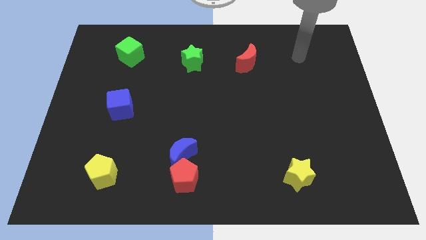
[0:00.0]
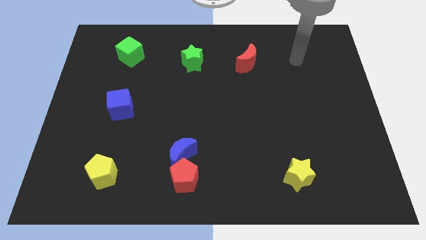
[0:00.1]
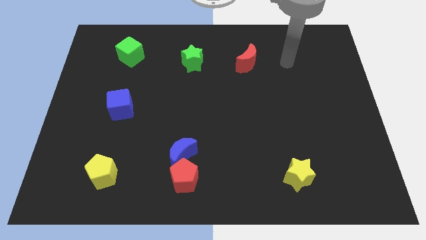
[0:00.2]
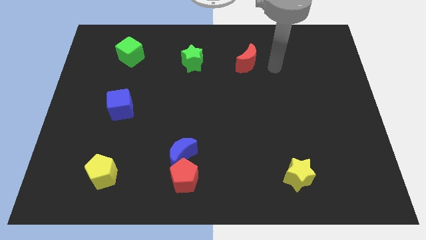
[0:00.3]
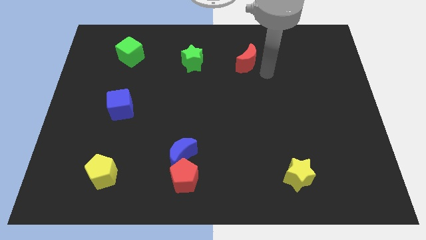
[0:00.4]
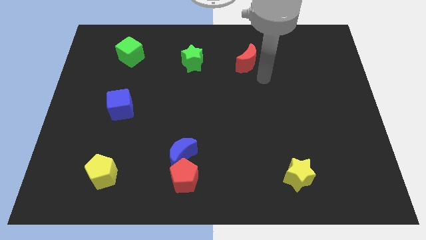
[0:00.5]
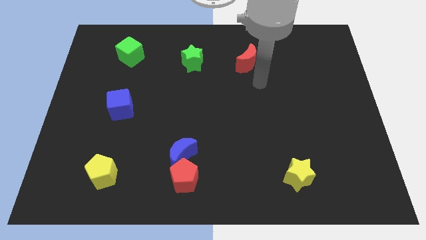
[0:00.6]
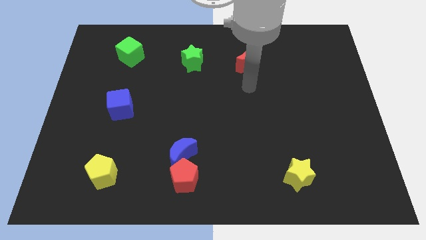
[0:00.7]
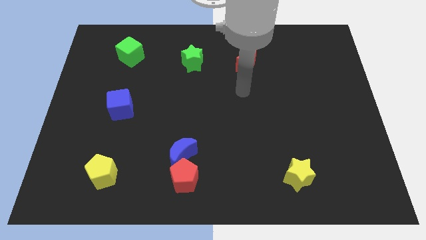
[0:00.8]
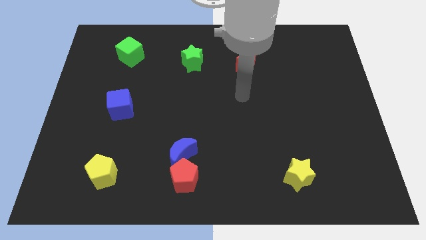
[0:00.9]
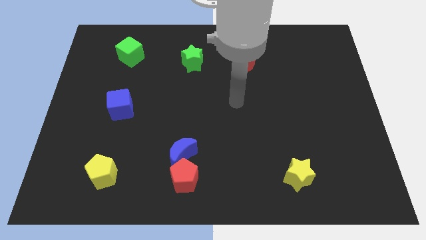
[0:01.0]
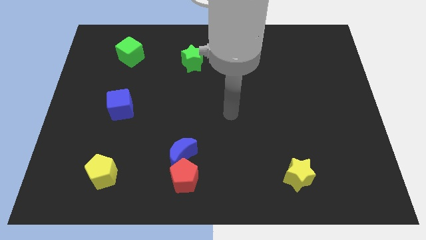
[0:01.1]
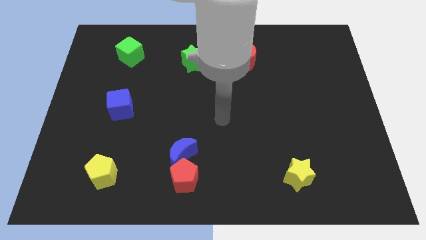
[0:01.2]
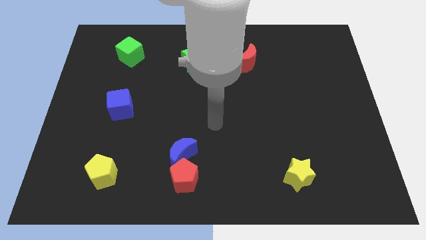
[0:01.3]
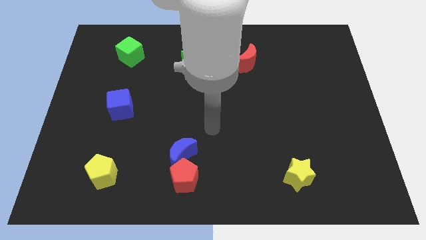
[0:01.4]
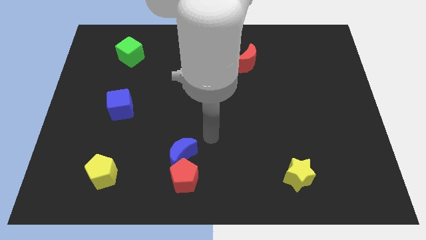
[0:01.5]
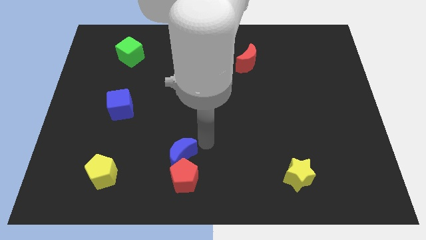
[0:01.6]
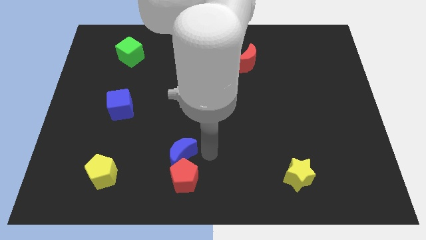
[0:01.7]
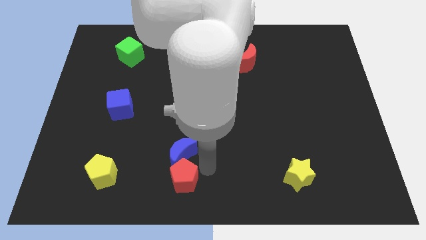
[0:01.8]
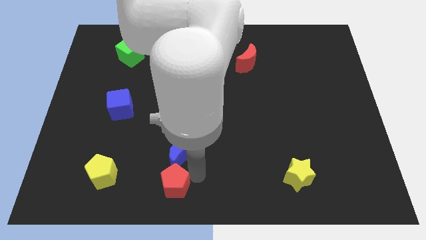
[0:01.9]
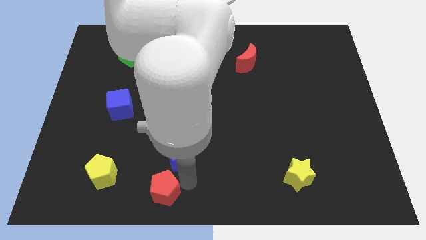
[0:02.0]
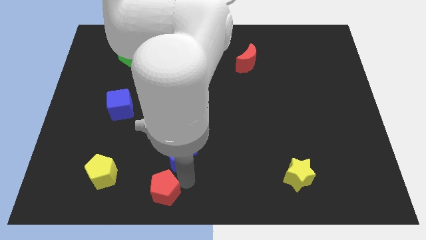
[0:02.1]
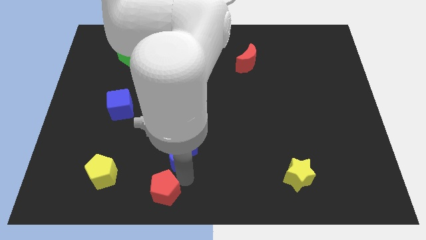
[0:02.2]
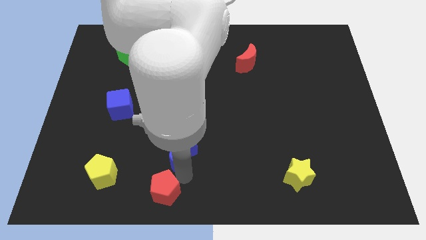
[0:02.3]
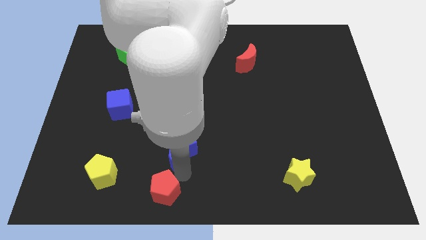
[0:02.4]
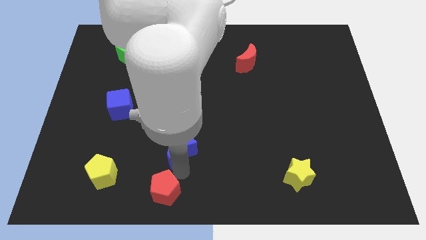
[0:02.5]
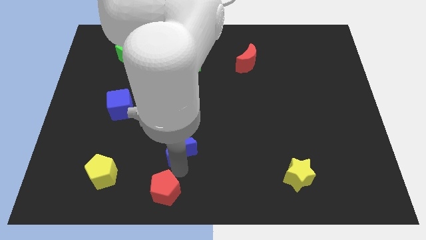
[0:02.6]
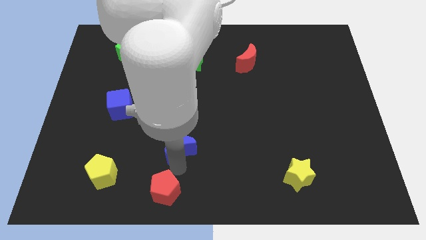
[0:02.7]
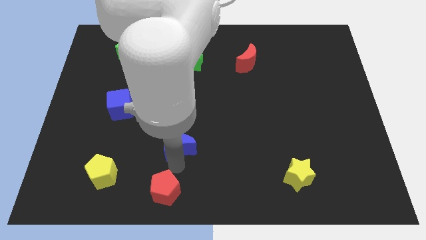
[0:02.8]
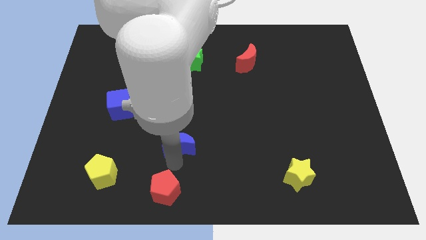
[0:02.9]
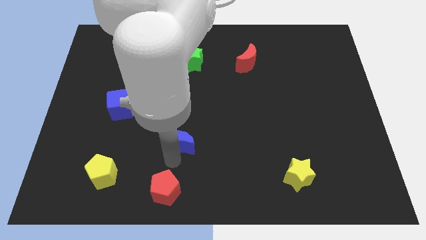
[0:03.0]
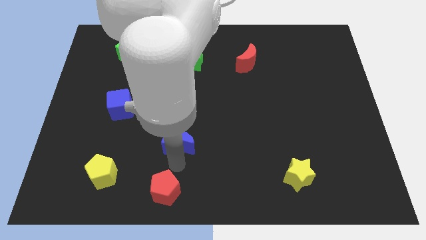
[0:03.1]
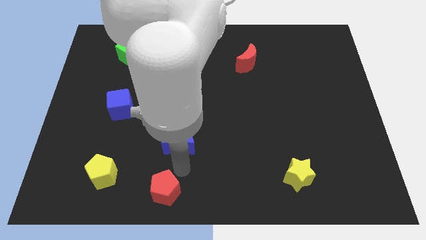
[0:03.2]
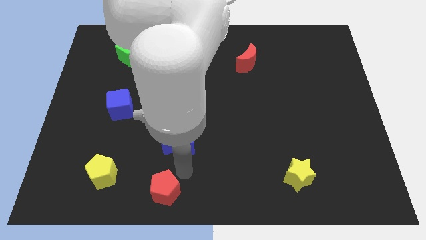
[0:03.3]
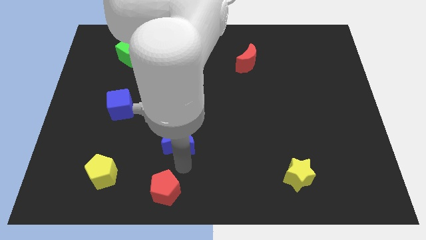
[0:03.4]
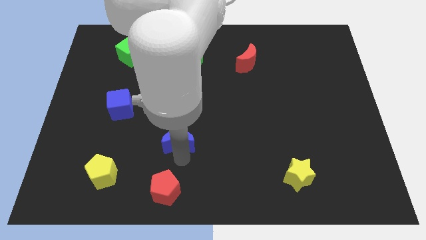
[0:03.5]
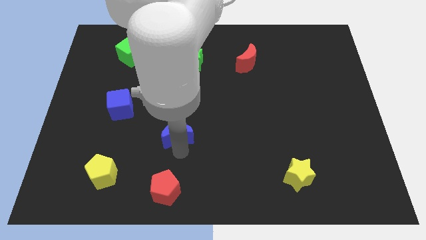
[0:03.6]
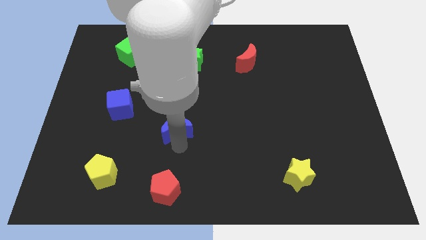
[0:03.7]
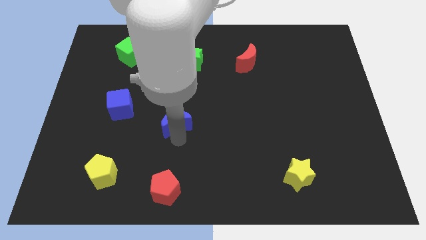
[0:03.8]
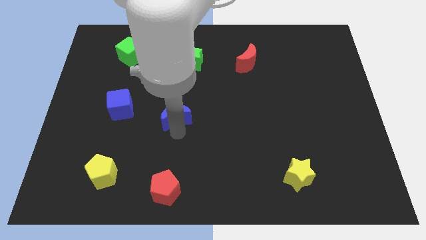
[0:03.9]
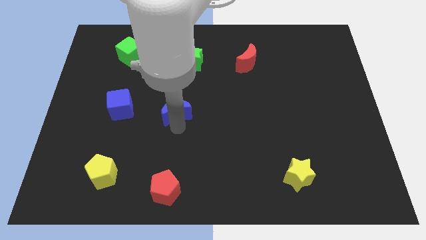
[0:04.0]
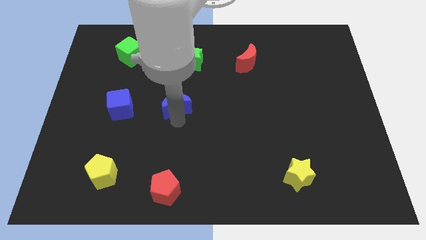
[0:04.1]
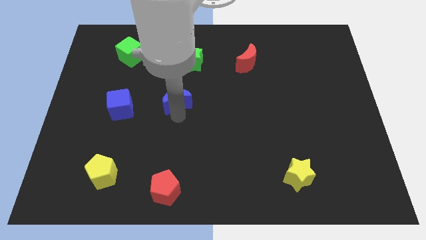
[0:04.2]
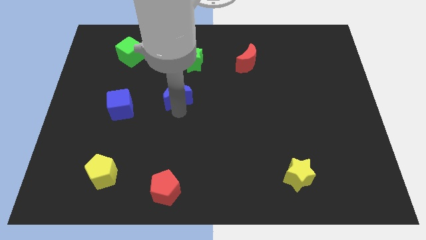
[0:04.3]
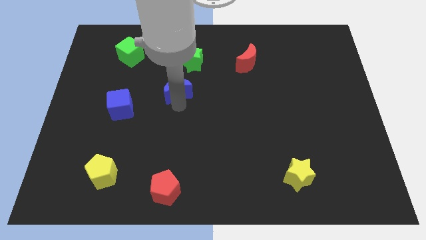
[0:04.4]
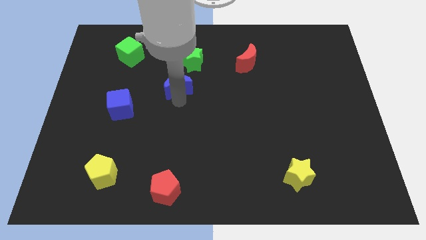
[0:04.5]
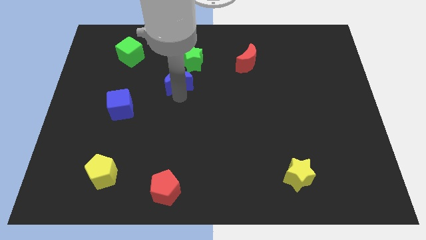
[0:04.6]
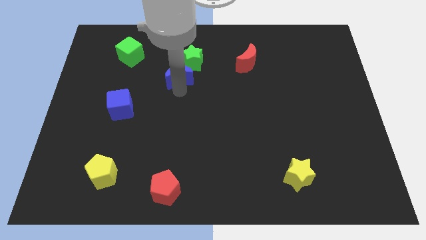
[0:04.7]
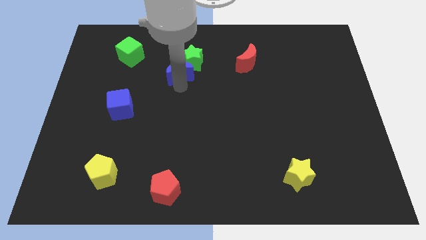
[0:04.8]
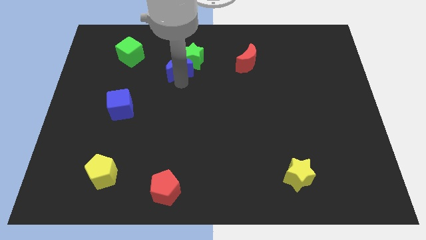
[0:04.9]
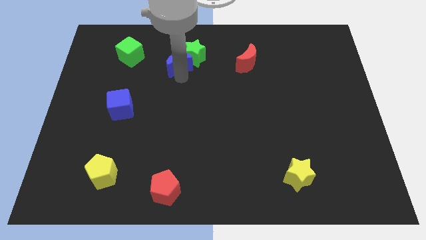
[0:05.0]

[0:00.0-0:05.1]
put the blue moon just right of the green cube

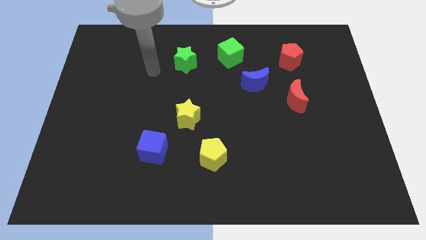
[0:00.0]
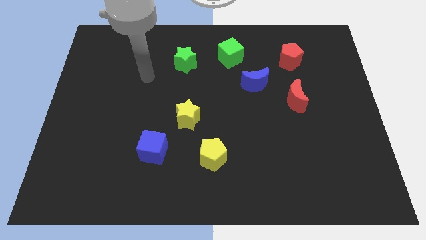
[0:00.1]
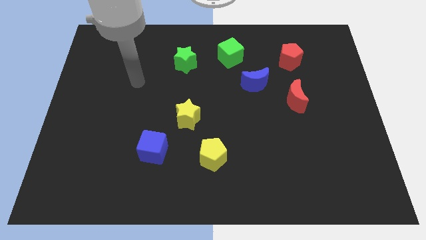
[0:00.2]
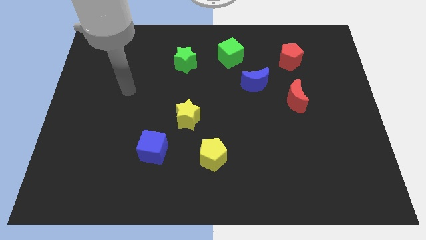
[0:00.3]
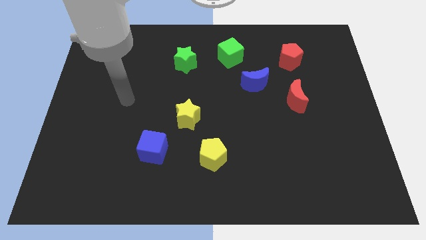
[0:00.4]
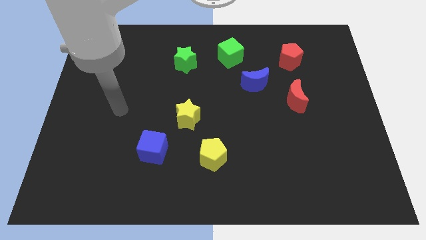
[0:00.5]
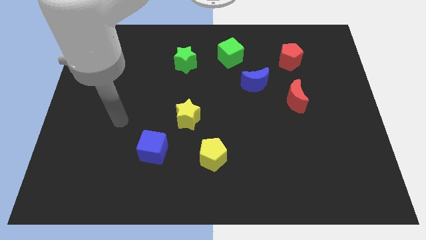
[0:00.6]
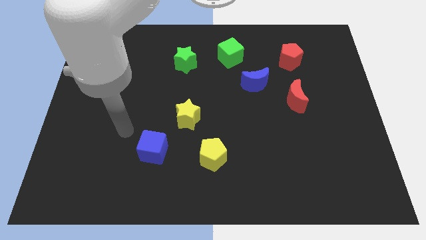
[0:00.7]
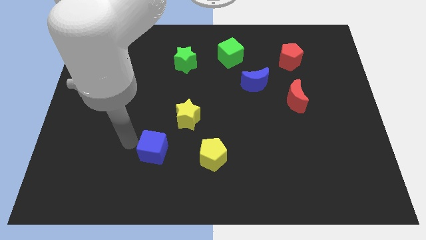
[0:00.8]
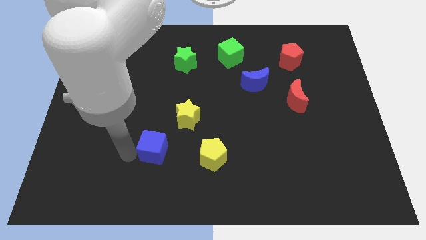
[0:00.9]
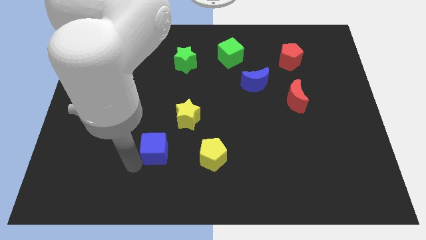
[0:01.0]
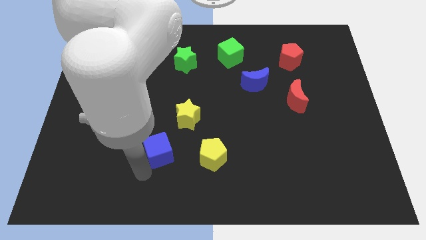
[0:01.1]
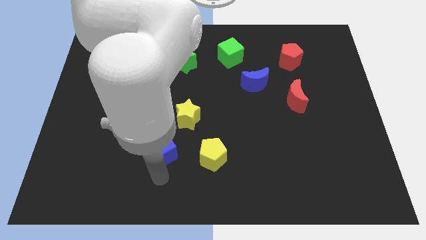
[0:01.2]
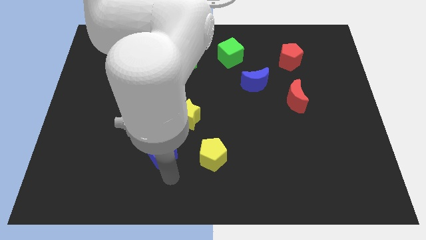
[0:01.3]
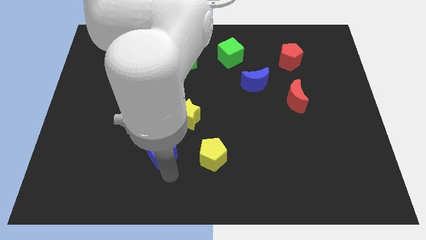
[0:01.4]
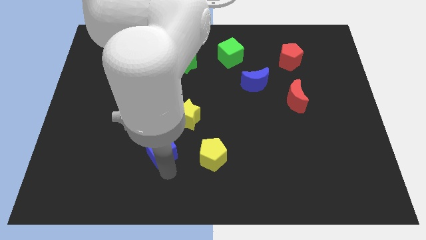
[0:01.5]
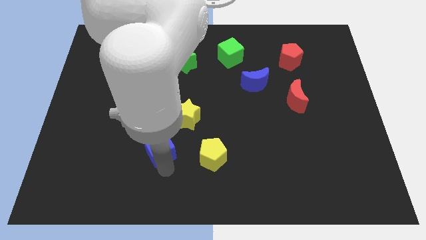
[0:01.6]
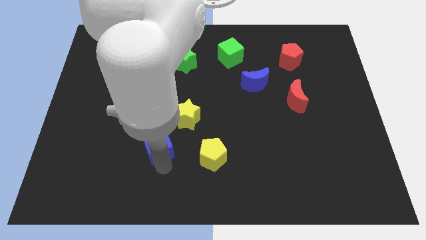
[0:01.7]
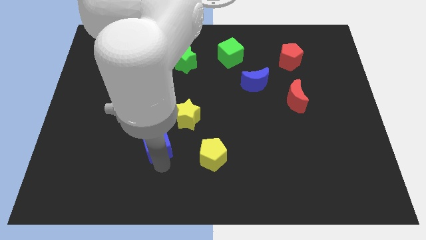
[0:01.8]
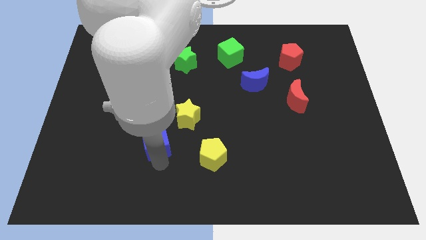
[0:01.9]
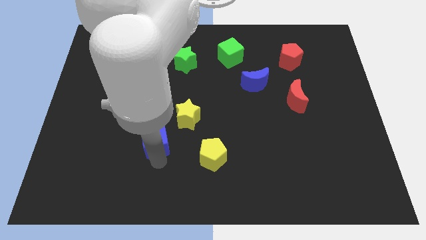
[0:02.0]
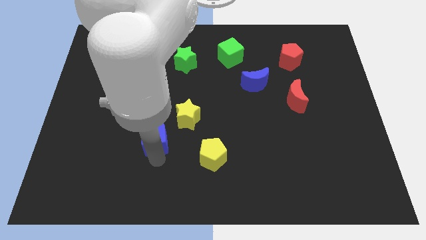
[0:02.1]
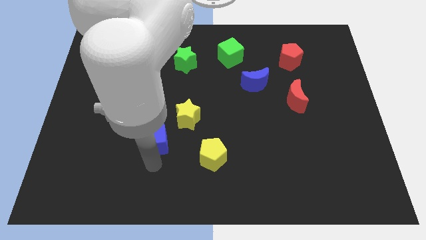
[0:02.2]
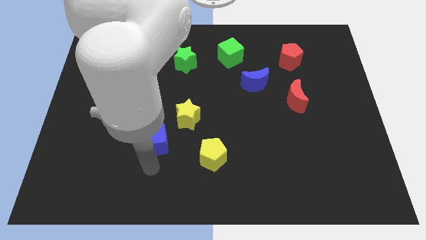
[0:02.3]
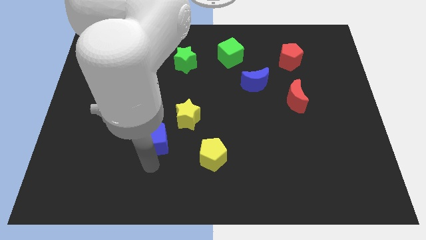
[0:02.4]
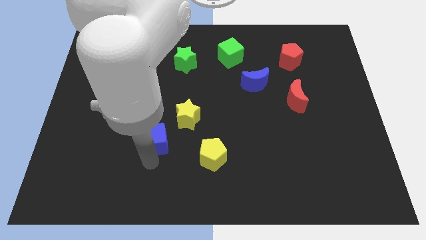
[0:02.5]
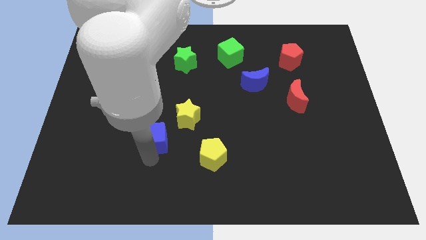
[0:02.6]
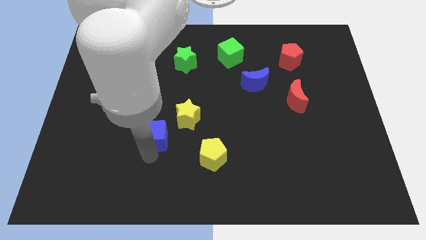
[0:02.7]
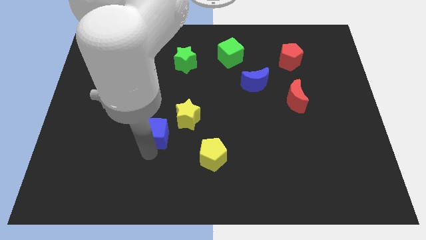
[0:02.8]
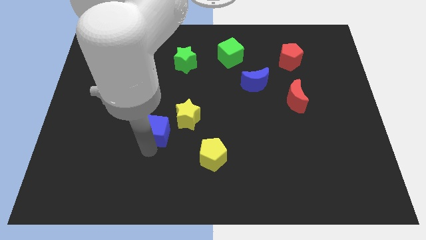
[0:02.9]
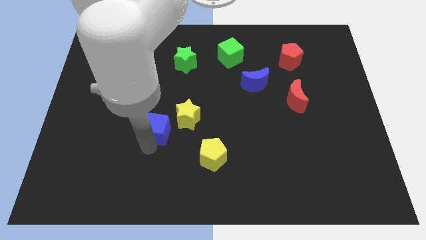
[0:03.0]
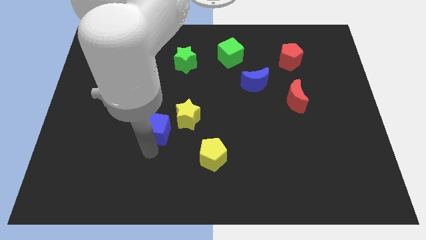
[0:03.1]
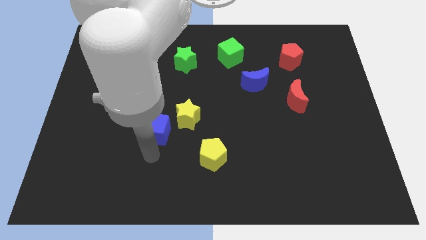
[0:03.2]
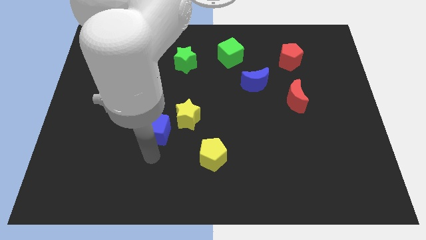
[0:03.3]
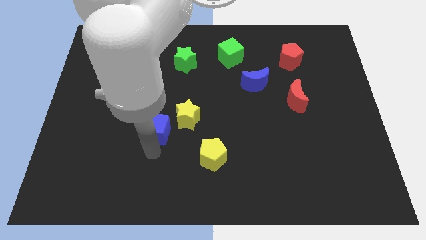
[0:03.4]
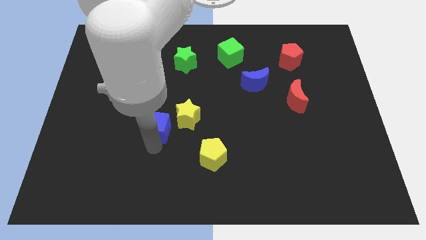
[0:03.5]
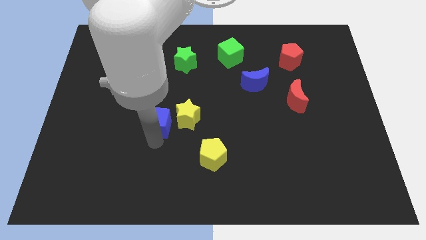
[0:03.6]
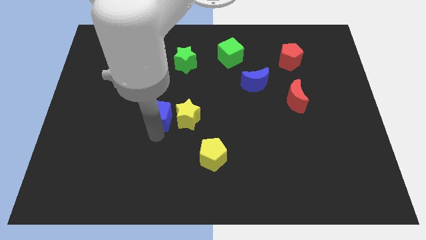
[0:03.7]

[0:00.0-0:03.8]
put the blue cube diagonally up and to the left of the yellow star
